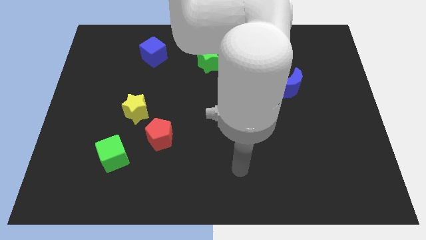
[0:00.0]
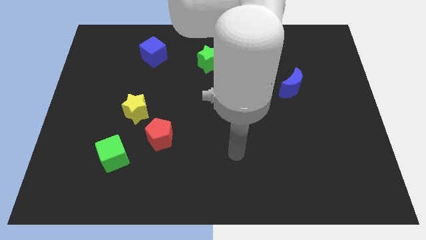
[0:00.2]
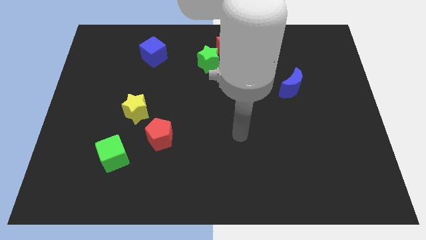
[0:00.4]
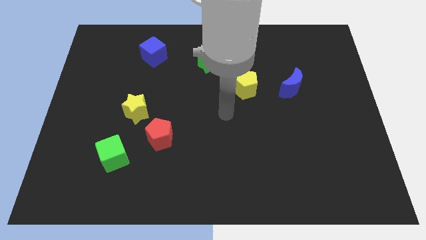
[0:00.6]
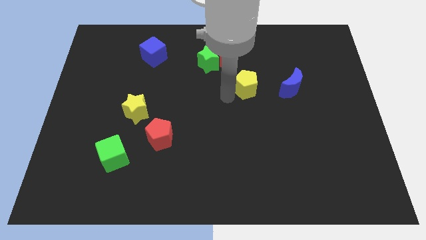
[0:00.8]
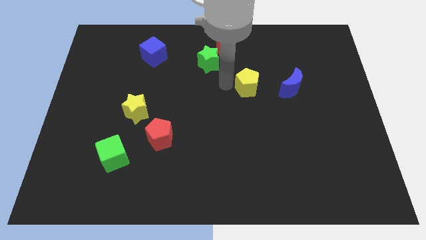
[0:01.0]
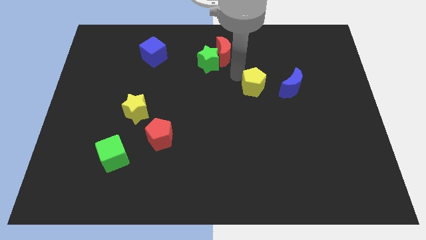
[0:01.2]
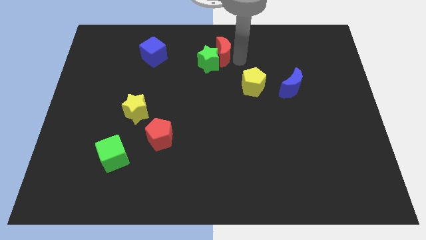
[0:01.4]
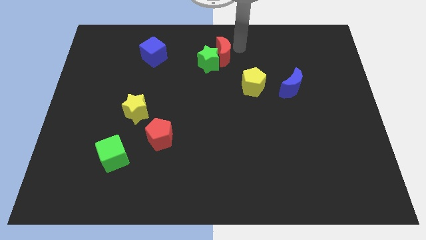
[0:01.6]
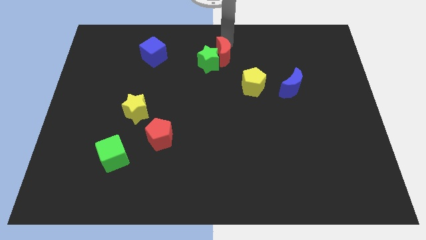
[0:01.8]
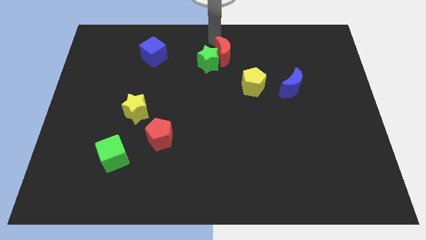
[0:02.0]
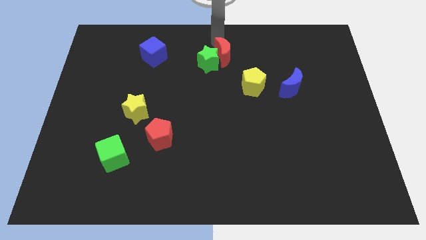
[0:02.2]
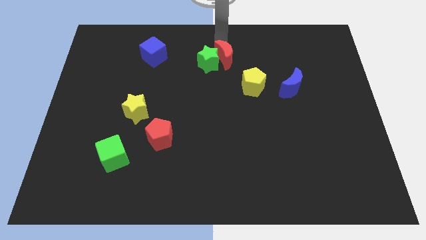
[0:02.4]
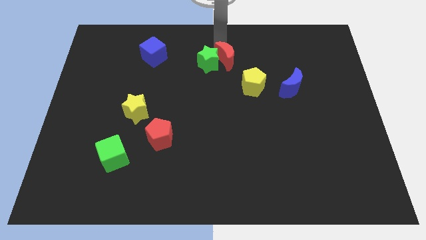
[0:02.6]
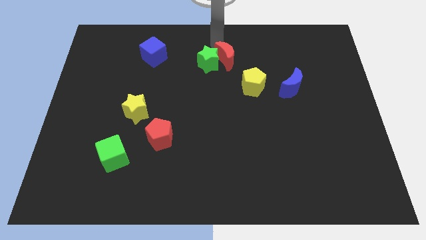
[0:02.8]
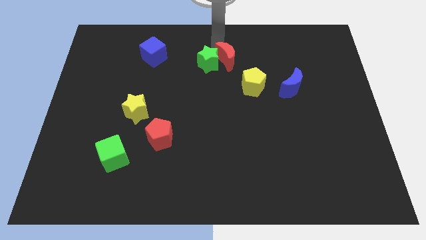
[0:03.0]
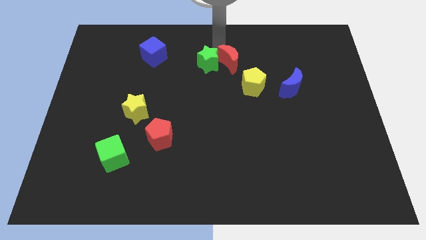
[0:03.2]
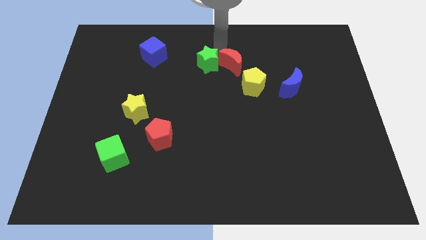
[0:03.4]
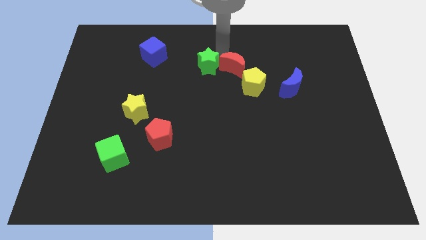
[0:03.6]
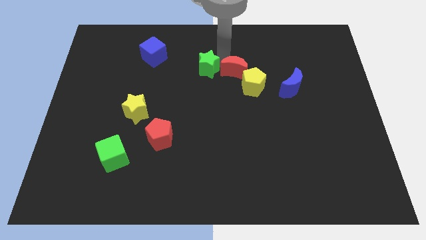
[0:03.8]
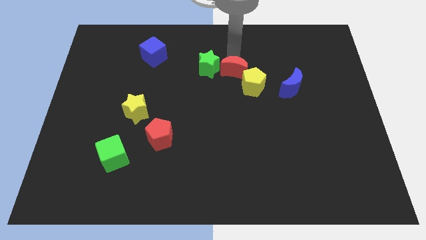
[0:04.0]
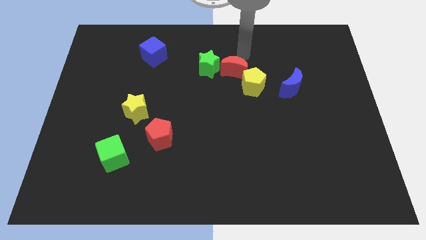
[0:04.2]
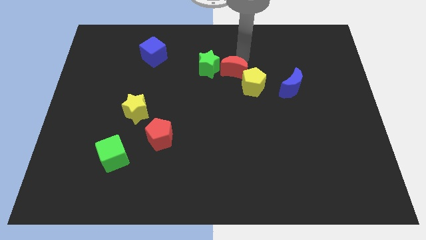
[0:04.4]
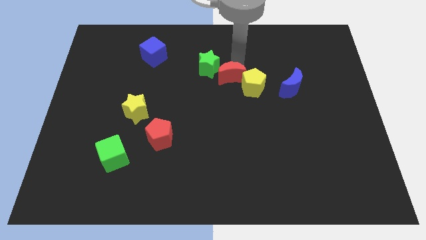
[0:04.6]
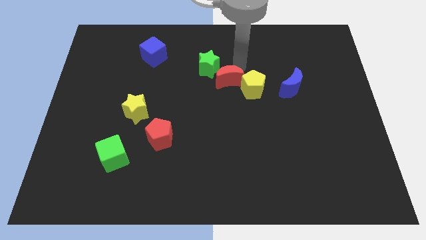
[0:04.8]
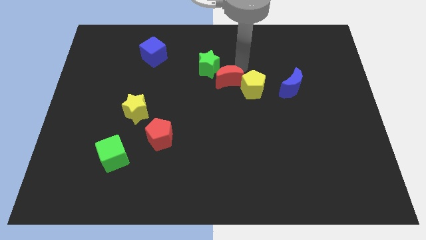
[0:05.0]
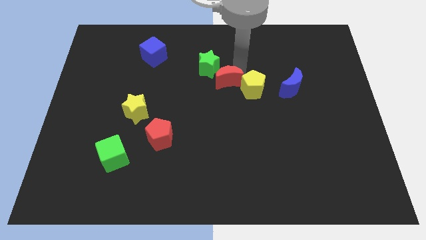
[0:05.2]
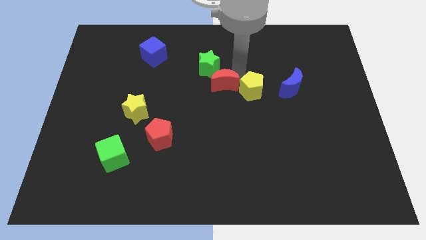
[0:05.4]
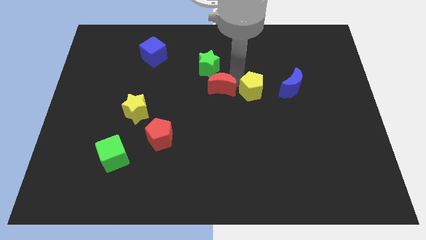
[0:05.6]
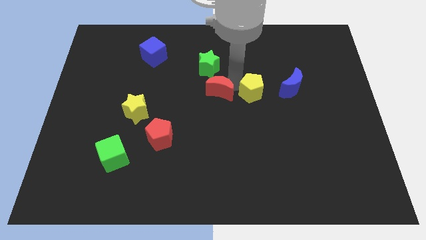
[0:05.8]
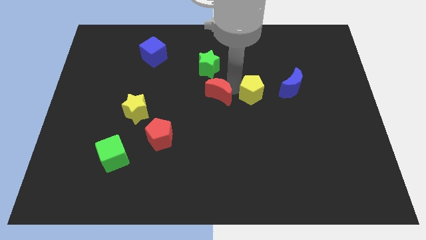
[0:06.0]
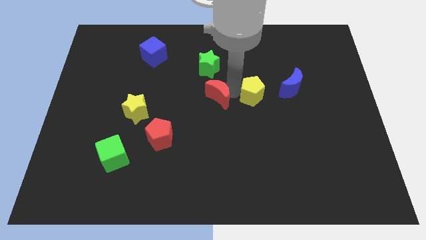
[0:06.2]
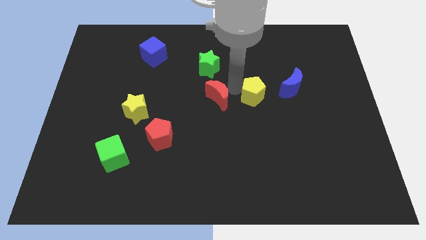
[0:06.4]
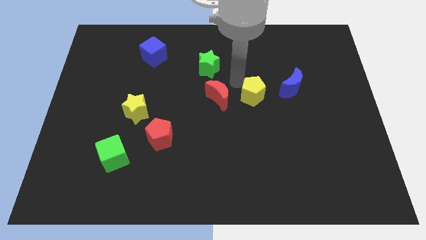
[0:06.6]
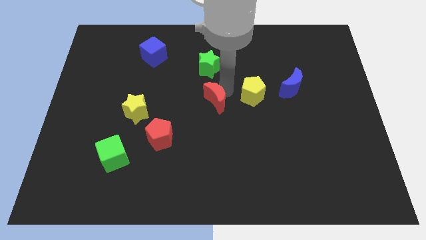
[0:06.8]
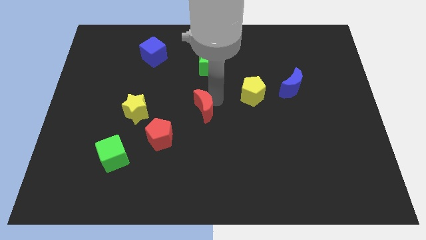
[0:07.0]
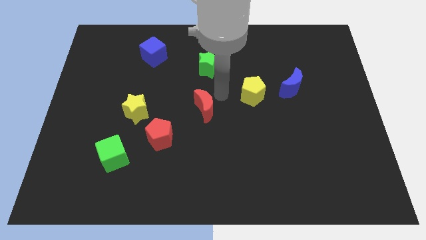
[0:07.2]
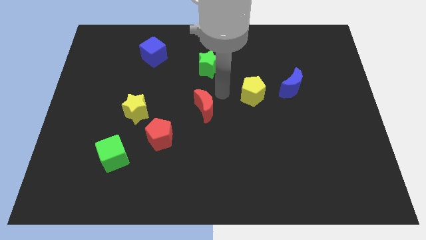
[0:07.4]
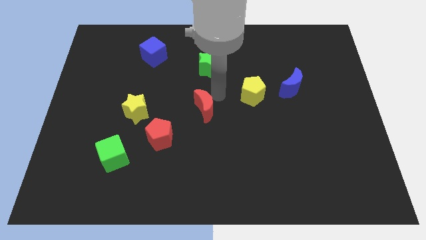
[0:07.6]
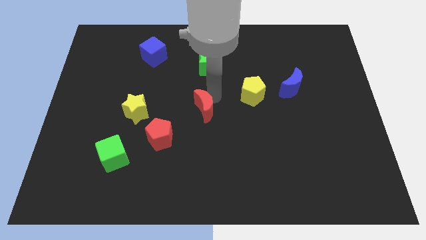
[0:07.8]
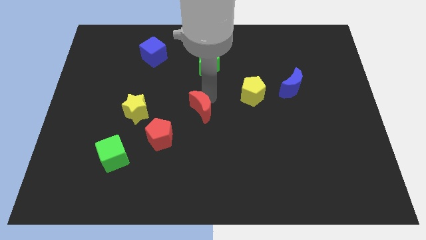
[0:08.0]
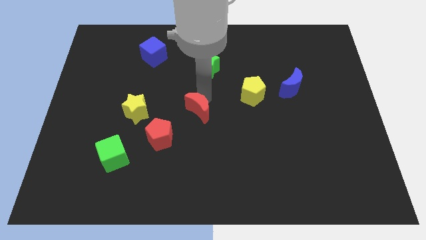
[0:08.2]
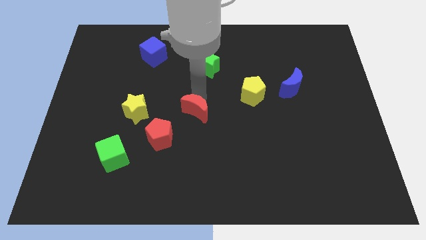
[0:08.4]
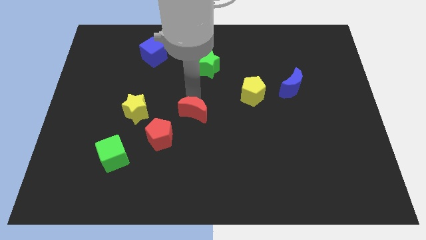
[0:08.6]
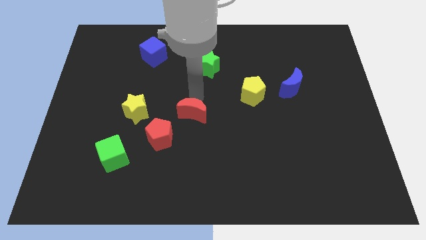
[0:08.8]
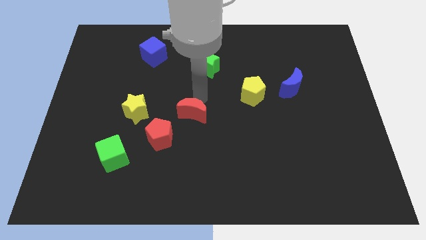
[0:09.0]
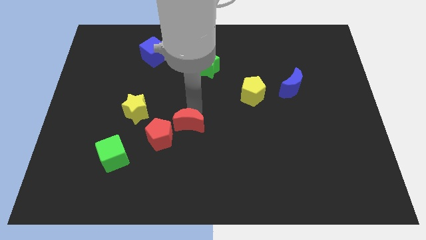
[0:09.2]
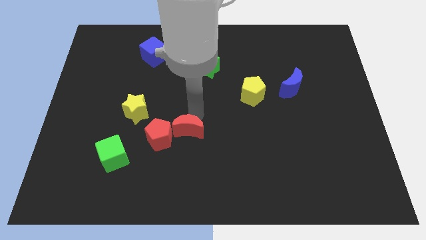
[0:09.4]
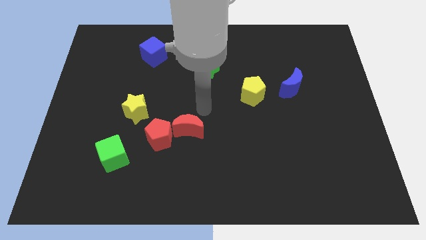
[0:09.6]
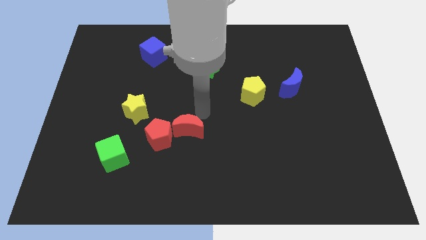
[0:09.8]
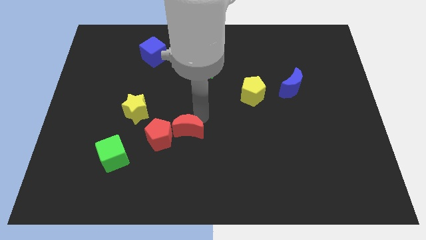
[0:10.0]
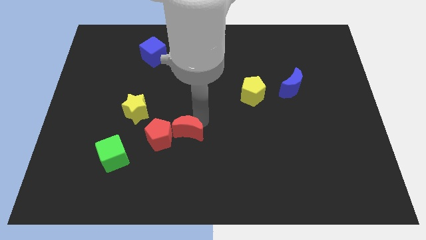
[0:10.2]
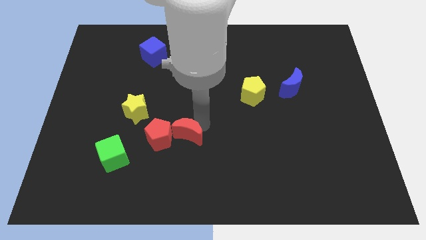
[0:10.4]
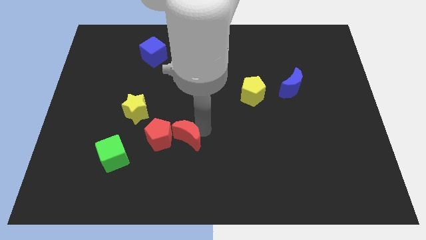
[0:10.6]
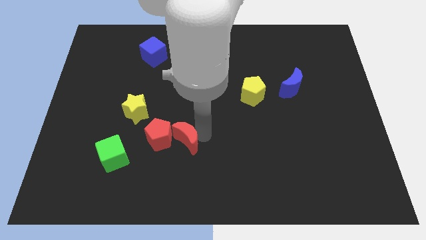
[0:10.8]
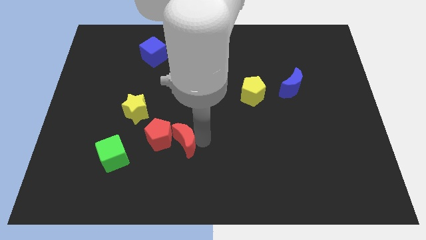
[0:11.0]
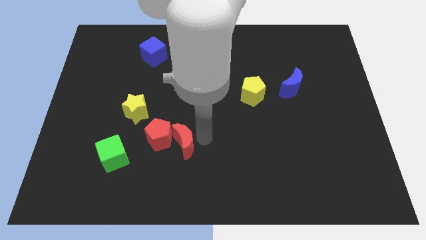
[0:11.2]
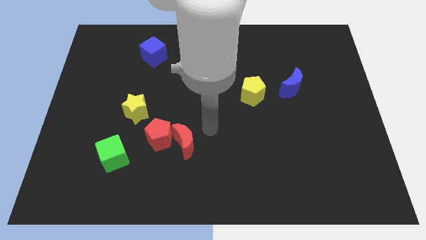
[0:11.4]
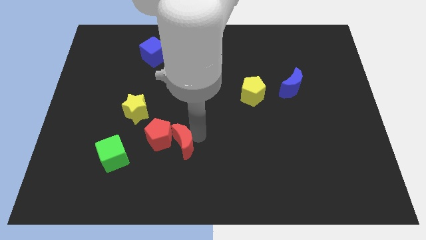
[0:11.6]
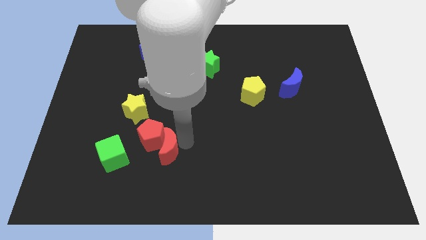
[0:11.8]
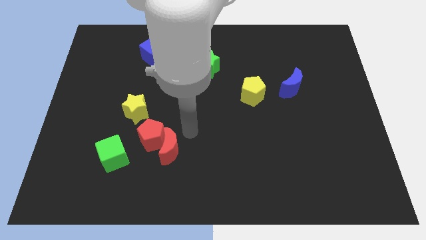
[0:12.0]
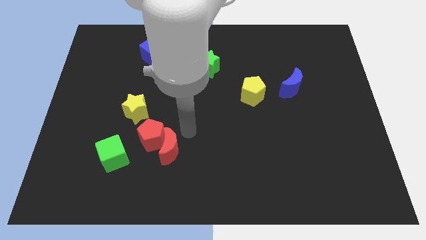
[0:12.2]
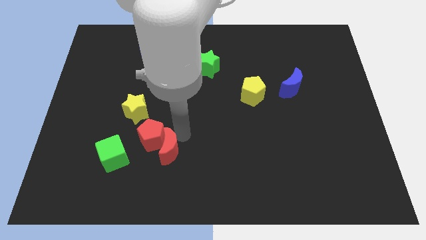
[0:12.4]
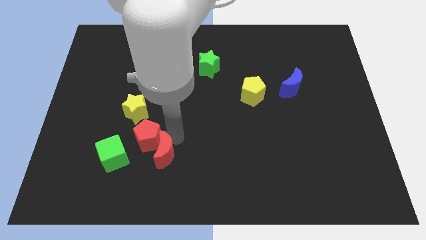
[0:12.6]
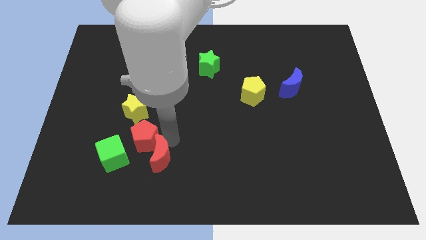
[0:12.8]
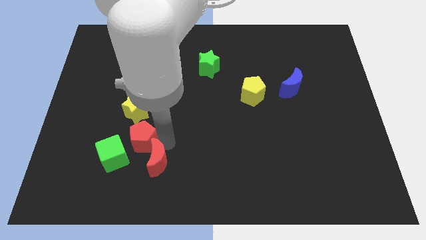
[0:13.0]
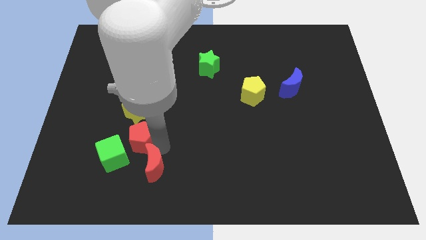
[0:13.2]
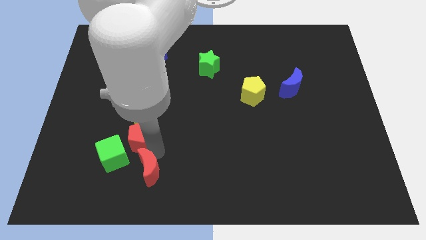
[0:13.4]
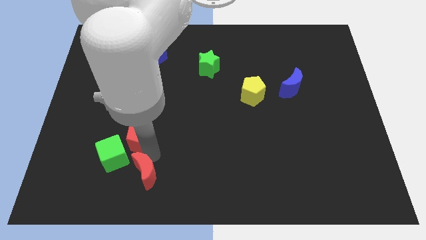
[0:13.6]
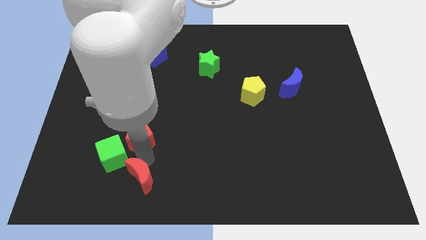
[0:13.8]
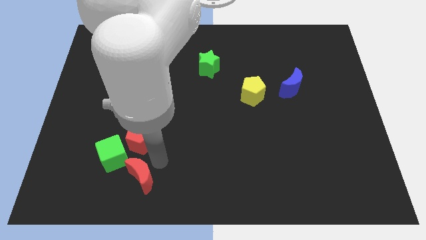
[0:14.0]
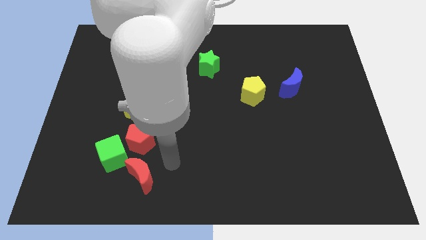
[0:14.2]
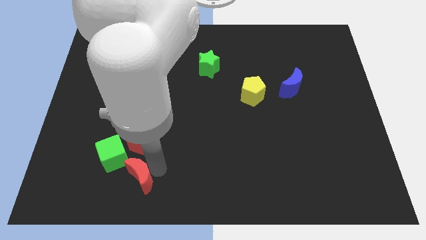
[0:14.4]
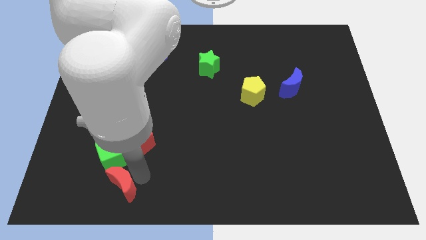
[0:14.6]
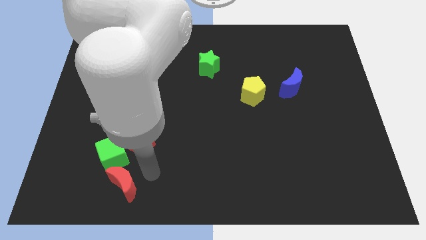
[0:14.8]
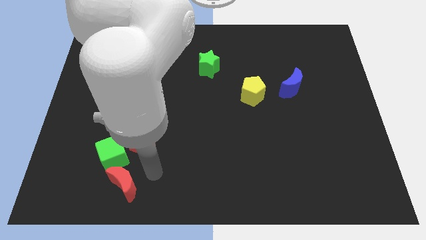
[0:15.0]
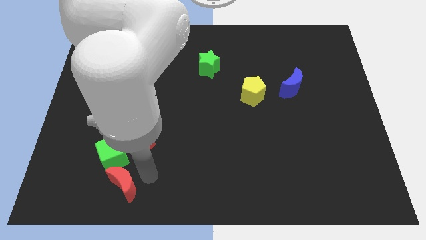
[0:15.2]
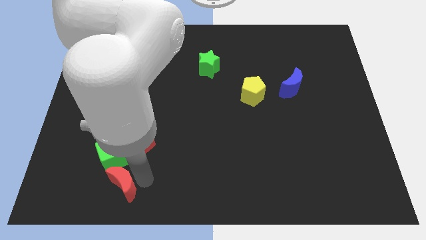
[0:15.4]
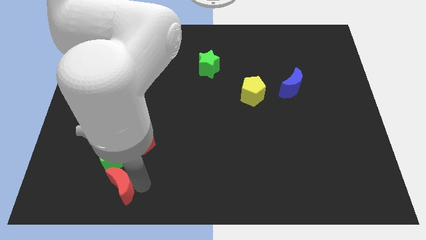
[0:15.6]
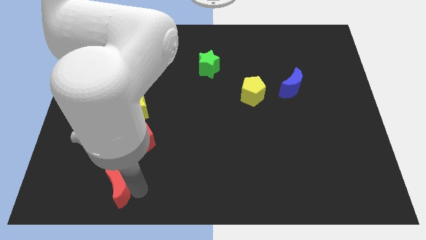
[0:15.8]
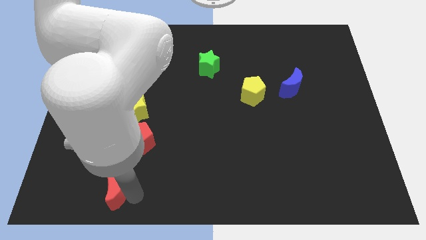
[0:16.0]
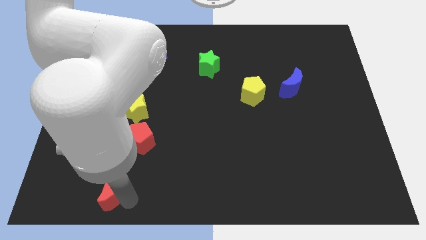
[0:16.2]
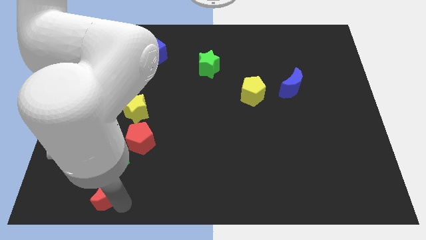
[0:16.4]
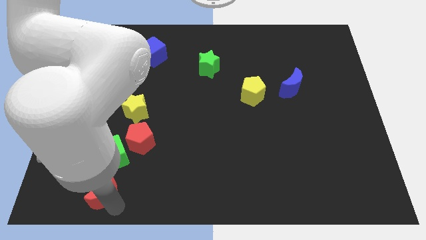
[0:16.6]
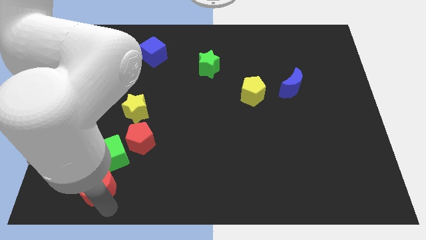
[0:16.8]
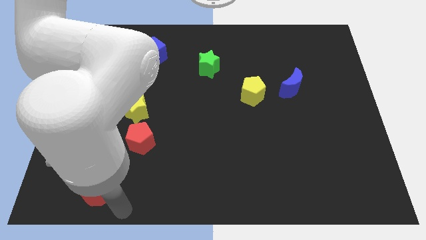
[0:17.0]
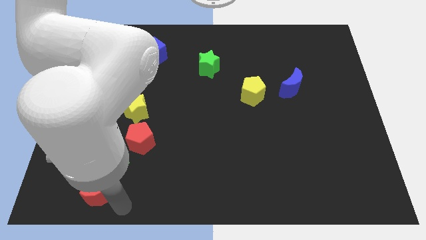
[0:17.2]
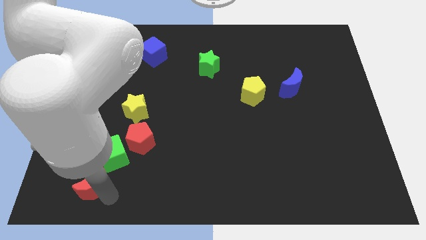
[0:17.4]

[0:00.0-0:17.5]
move the red moon diagonally down and to the left of the green cube
